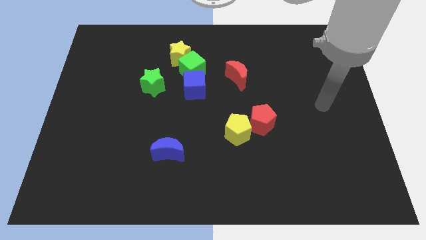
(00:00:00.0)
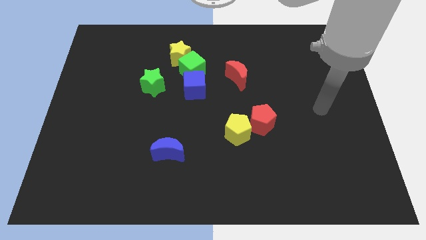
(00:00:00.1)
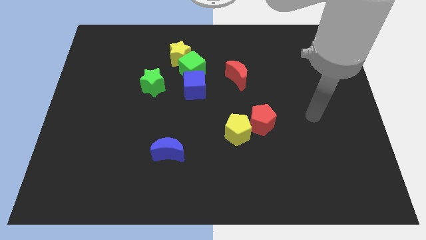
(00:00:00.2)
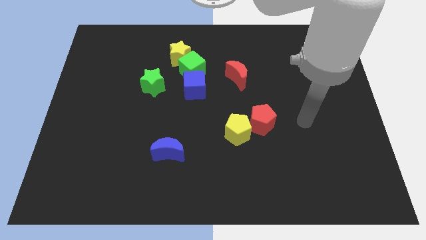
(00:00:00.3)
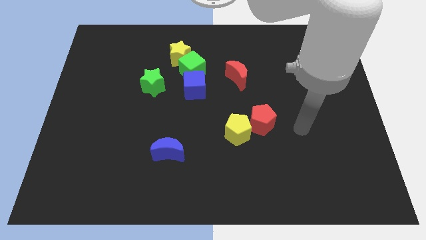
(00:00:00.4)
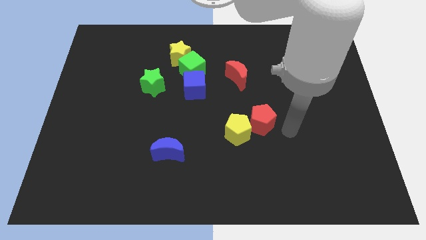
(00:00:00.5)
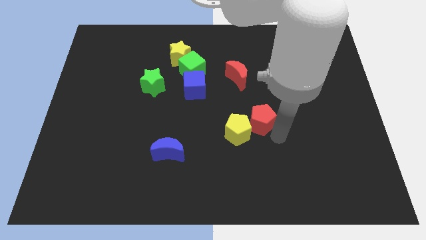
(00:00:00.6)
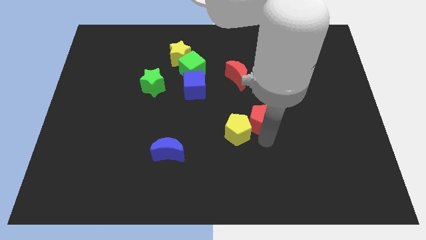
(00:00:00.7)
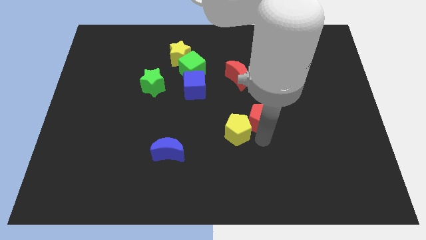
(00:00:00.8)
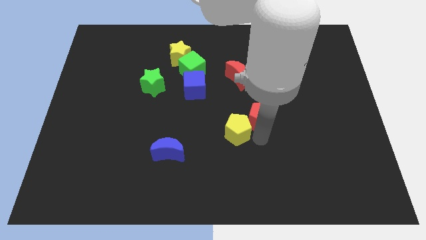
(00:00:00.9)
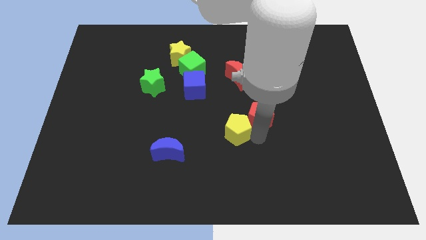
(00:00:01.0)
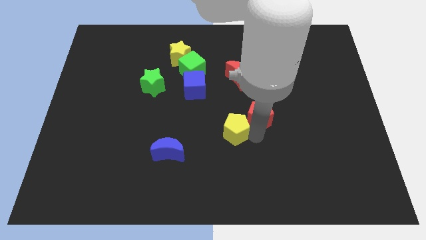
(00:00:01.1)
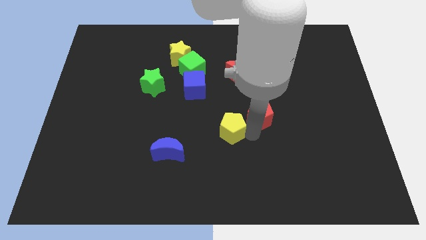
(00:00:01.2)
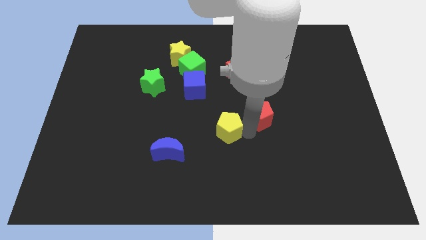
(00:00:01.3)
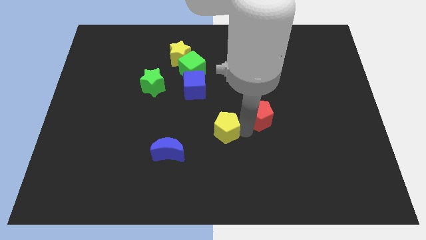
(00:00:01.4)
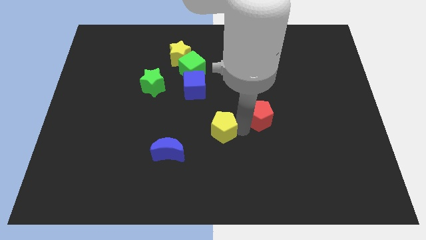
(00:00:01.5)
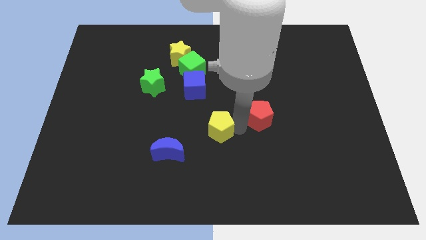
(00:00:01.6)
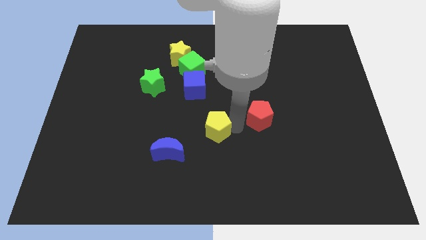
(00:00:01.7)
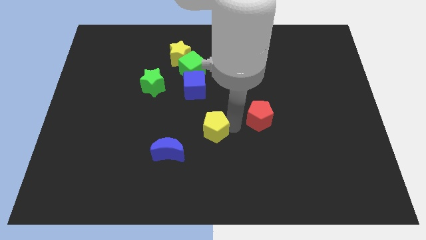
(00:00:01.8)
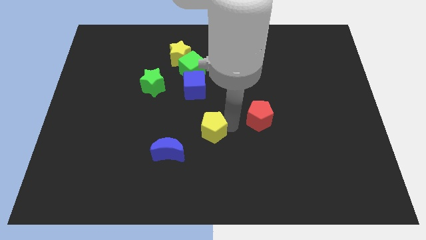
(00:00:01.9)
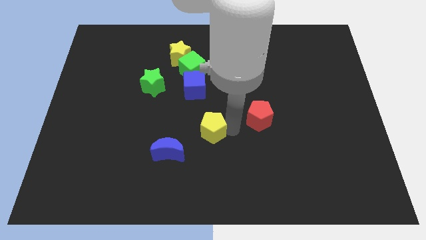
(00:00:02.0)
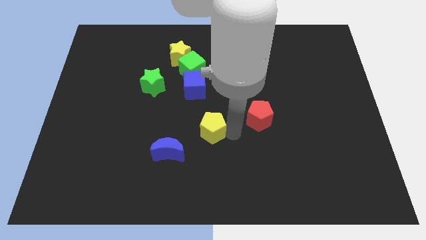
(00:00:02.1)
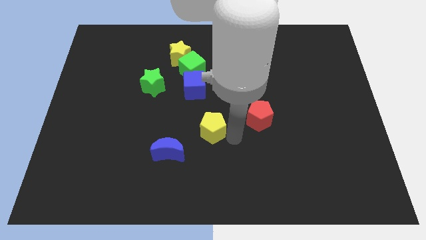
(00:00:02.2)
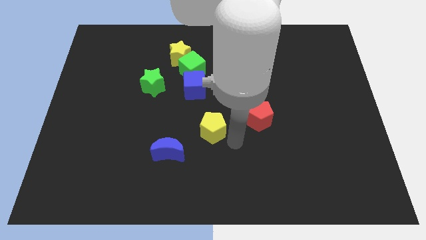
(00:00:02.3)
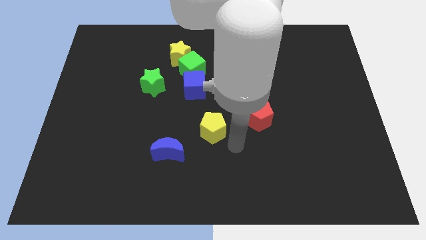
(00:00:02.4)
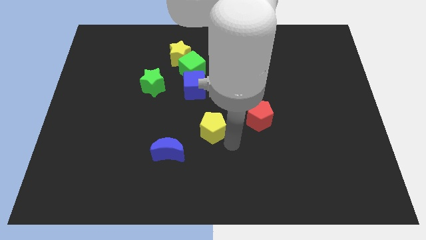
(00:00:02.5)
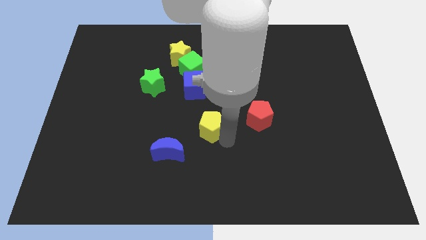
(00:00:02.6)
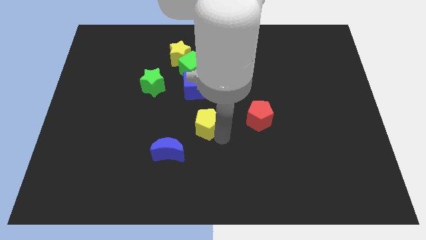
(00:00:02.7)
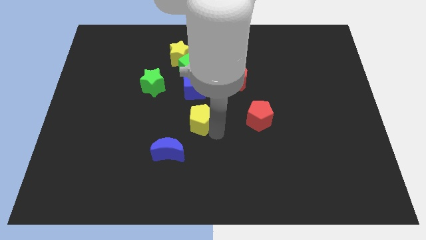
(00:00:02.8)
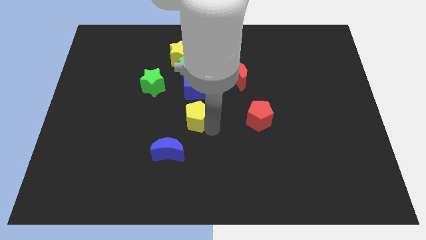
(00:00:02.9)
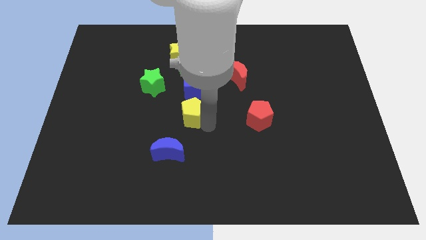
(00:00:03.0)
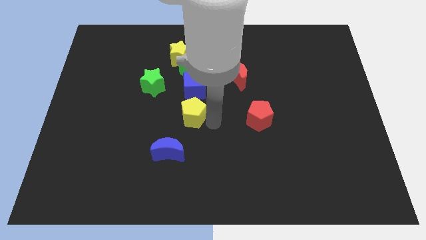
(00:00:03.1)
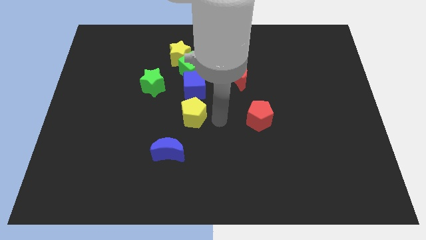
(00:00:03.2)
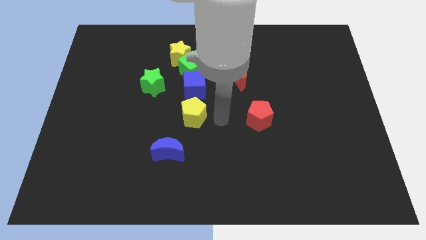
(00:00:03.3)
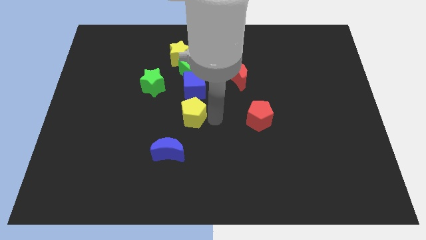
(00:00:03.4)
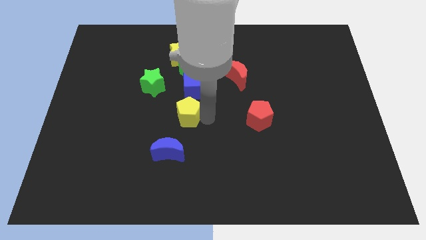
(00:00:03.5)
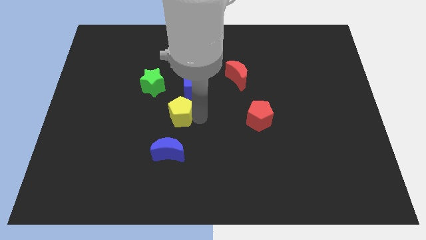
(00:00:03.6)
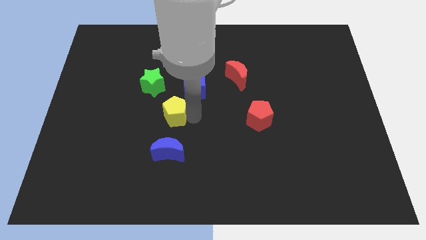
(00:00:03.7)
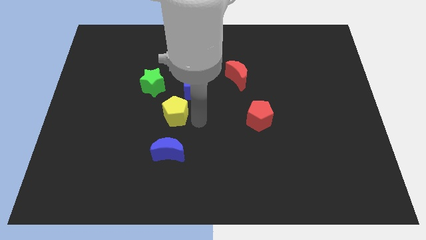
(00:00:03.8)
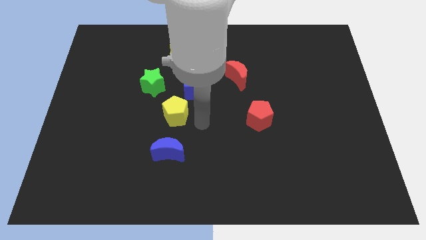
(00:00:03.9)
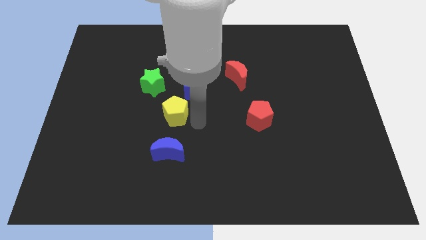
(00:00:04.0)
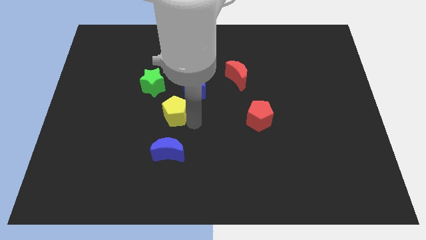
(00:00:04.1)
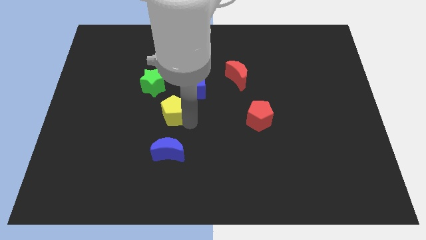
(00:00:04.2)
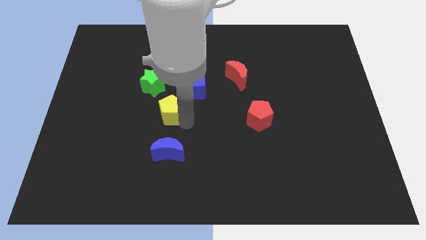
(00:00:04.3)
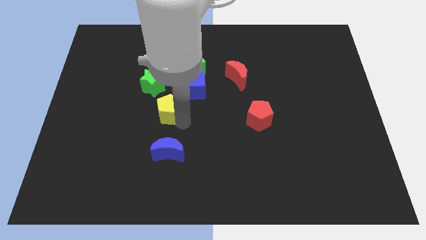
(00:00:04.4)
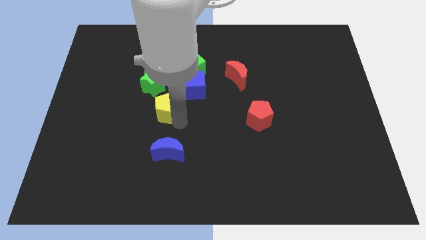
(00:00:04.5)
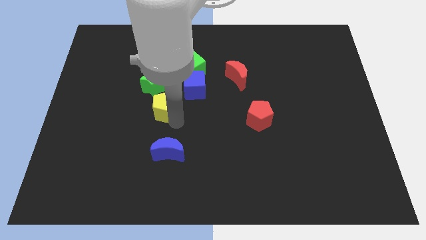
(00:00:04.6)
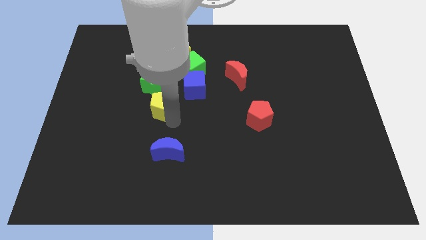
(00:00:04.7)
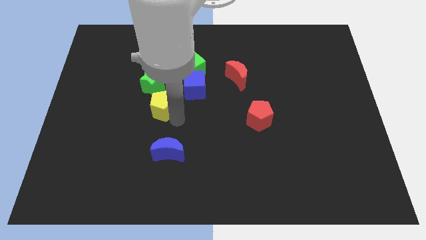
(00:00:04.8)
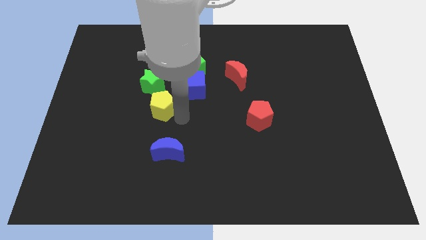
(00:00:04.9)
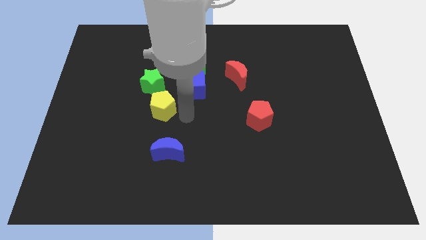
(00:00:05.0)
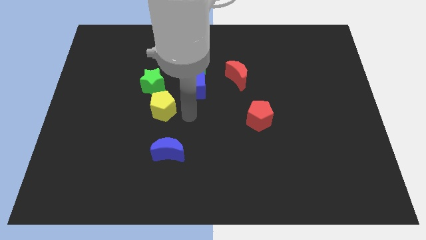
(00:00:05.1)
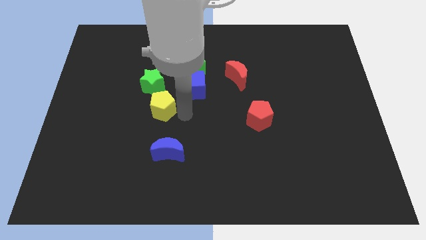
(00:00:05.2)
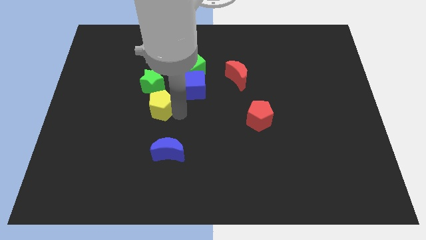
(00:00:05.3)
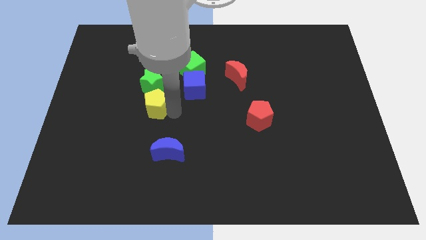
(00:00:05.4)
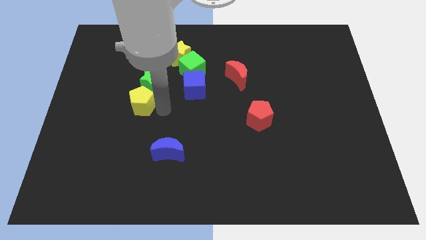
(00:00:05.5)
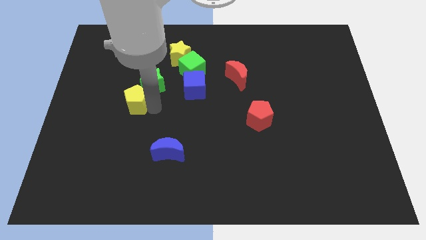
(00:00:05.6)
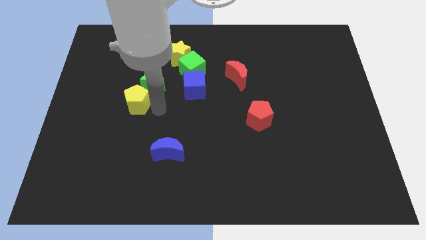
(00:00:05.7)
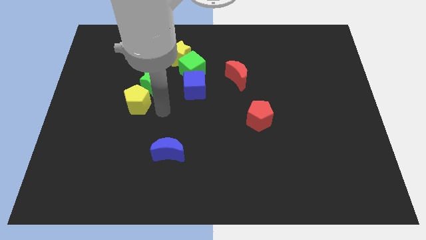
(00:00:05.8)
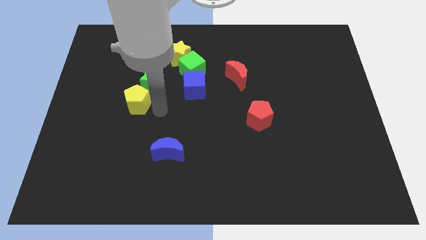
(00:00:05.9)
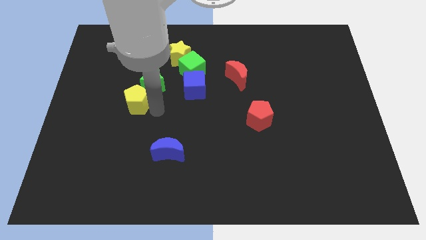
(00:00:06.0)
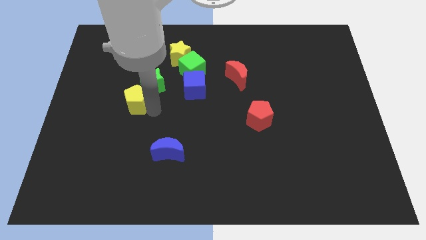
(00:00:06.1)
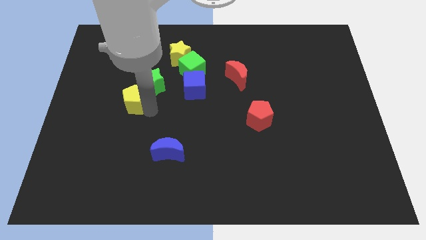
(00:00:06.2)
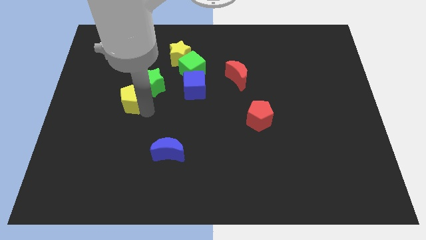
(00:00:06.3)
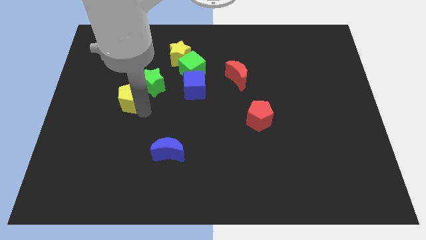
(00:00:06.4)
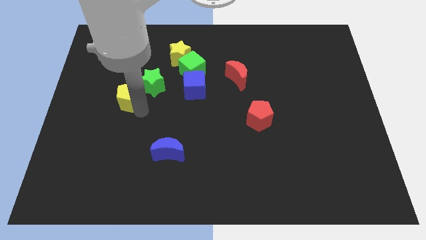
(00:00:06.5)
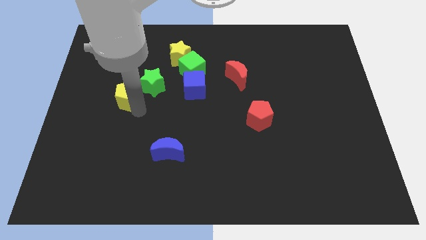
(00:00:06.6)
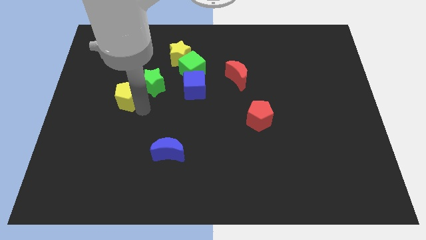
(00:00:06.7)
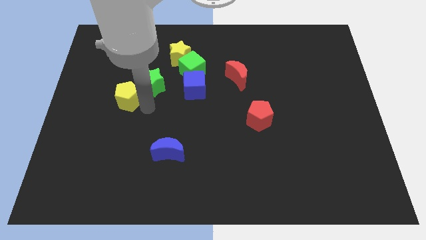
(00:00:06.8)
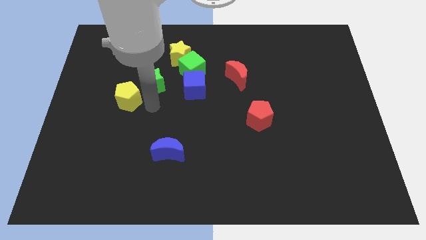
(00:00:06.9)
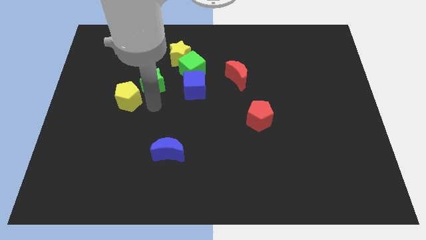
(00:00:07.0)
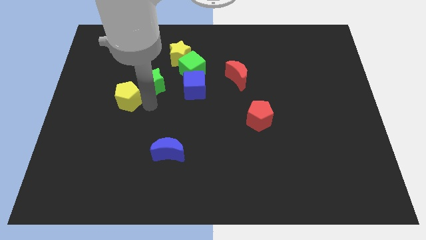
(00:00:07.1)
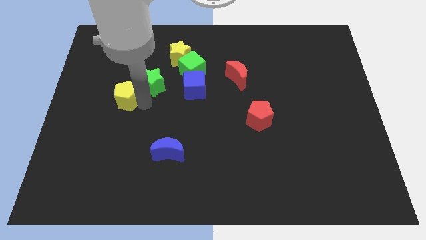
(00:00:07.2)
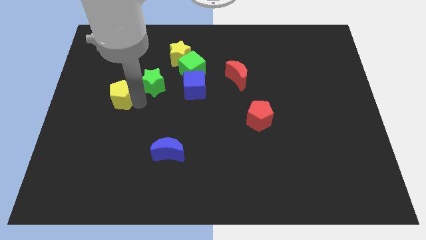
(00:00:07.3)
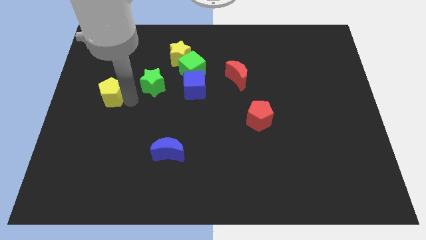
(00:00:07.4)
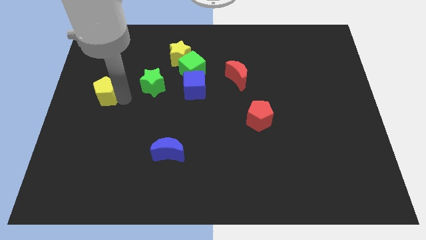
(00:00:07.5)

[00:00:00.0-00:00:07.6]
push the yellow pentagon to the center left
